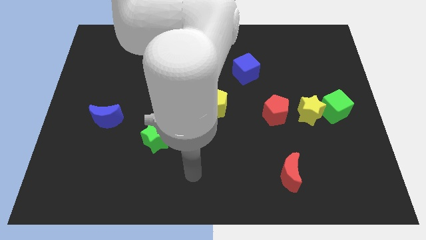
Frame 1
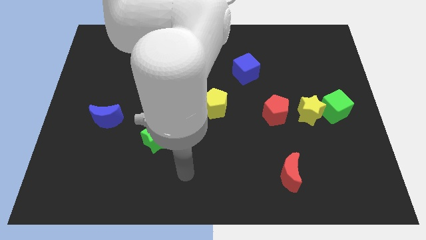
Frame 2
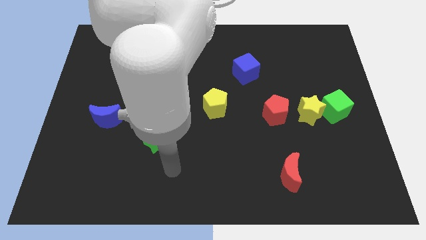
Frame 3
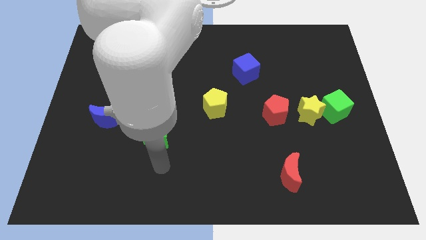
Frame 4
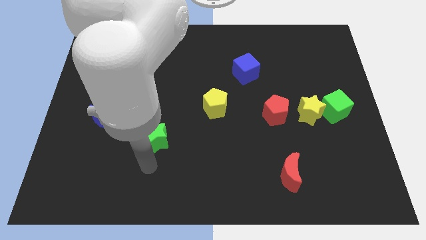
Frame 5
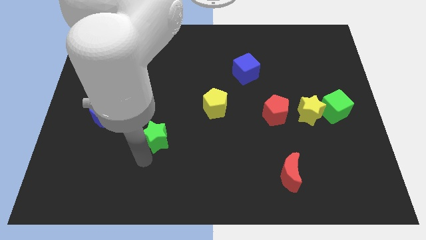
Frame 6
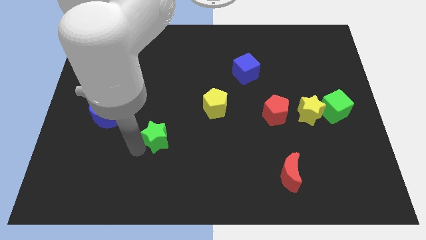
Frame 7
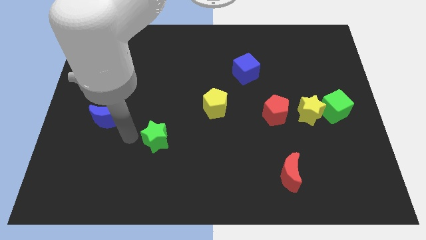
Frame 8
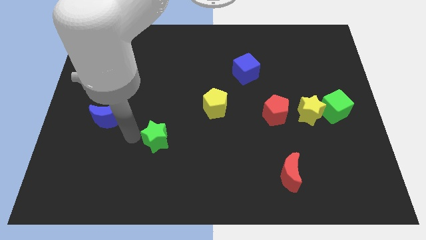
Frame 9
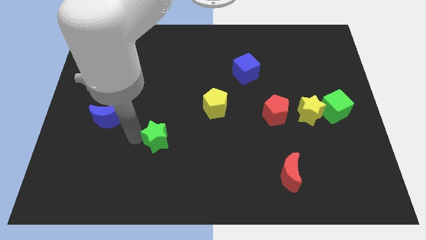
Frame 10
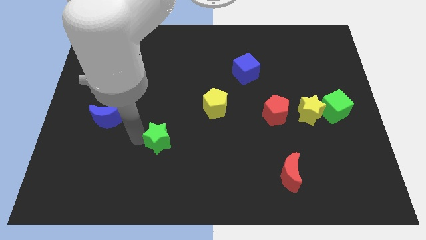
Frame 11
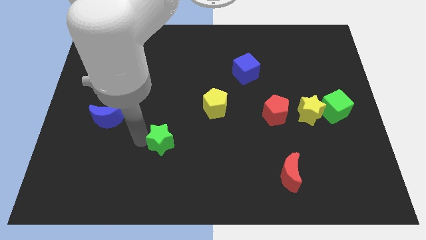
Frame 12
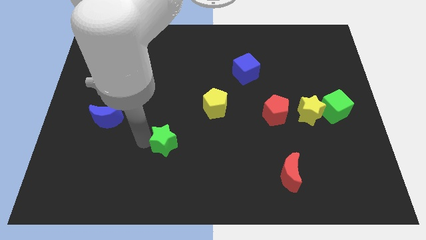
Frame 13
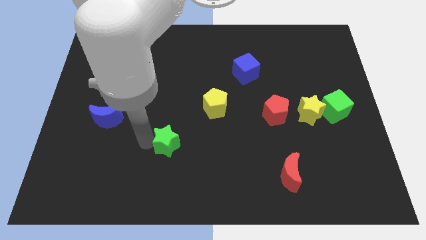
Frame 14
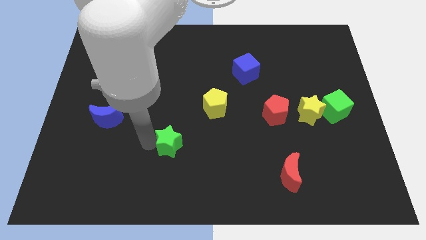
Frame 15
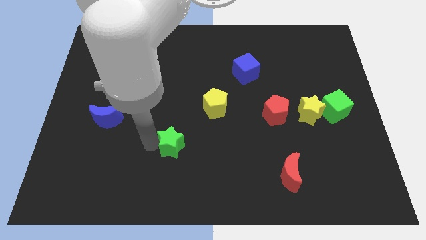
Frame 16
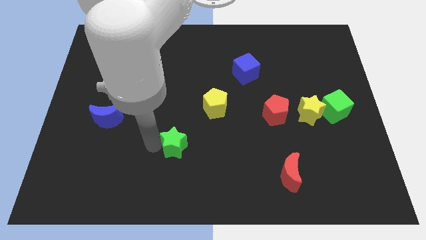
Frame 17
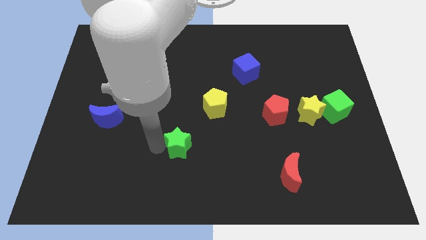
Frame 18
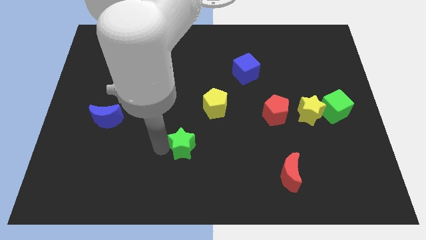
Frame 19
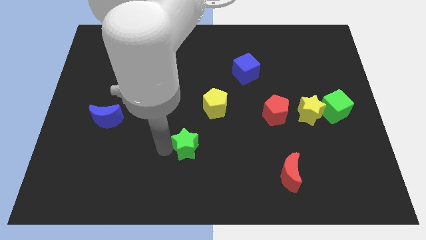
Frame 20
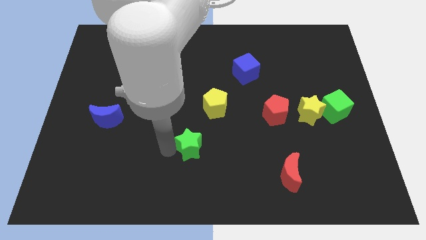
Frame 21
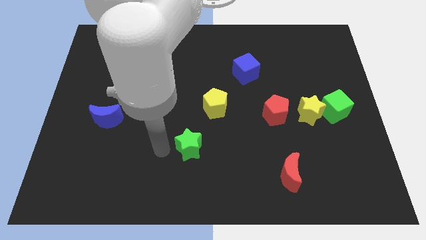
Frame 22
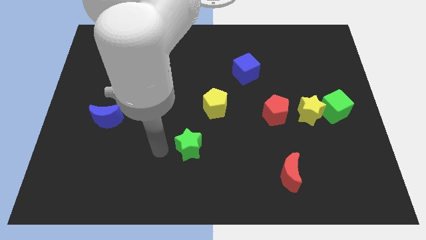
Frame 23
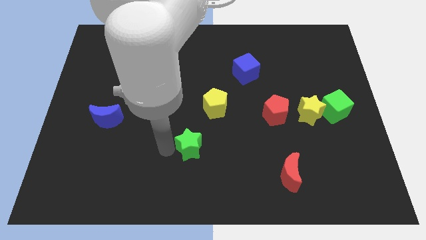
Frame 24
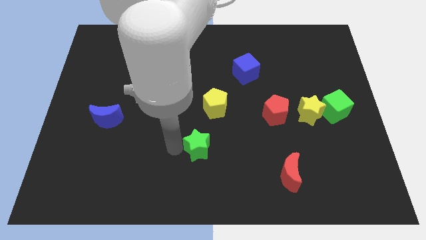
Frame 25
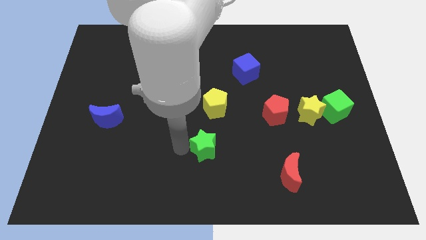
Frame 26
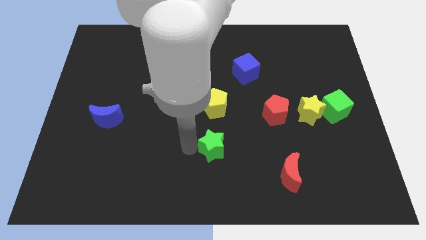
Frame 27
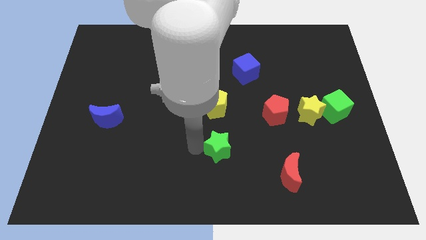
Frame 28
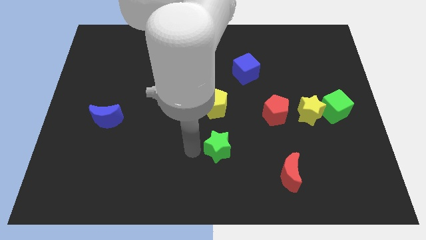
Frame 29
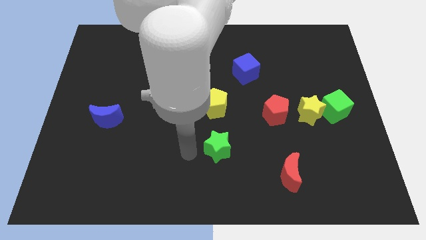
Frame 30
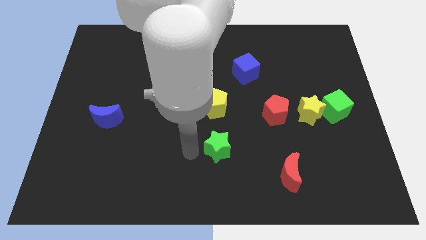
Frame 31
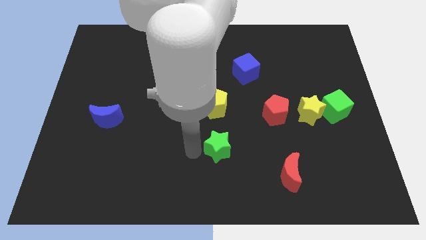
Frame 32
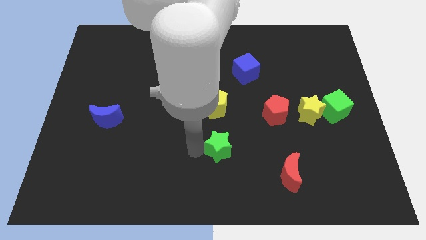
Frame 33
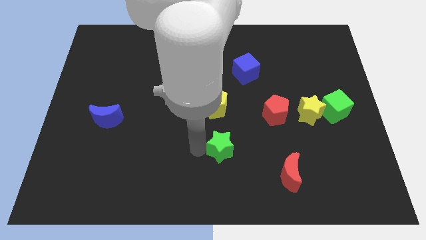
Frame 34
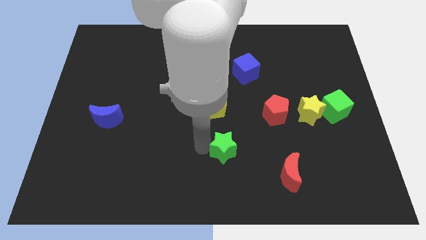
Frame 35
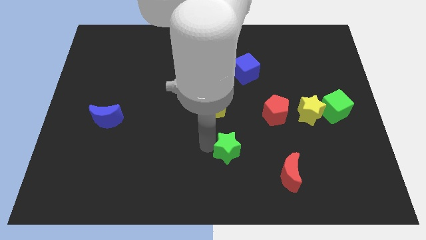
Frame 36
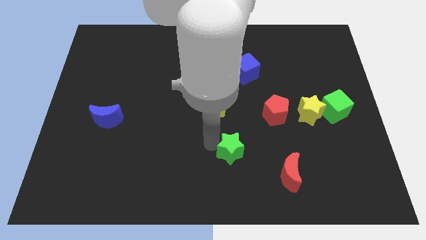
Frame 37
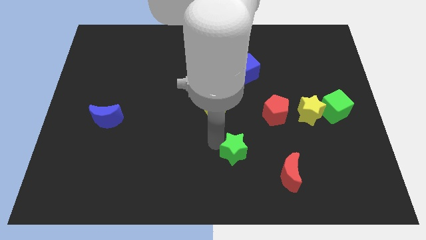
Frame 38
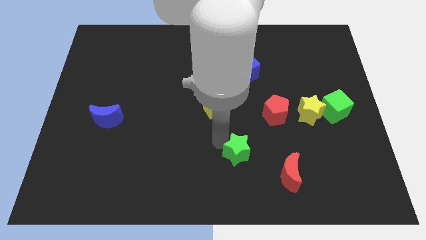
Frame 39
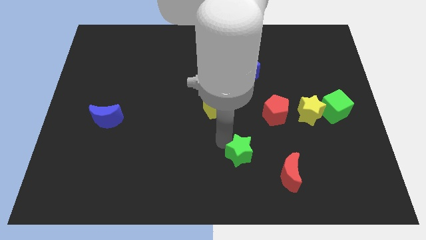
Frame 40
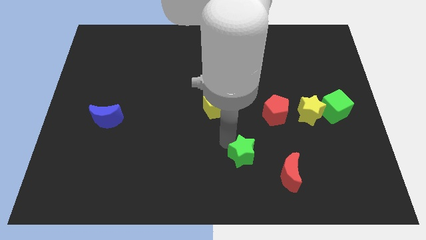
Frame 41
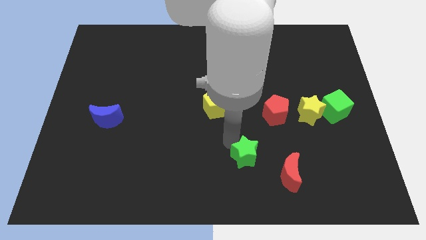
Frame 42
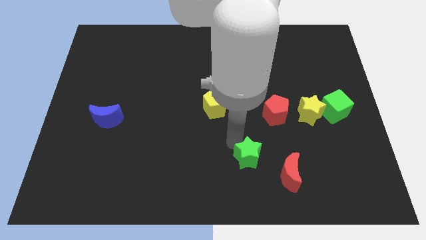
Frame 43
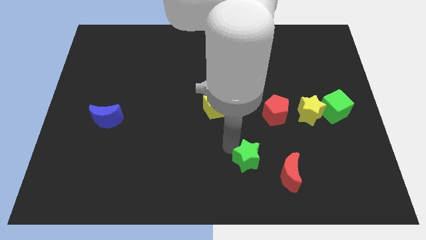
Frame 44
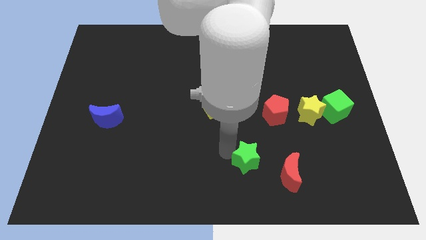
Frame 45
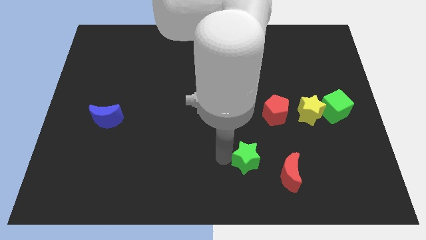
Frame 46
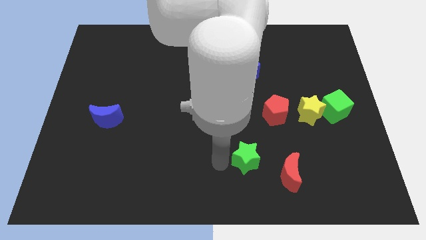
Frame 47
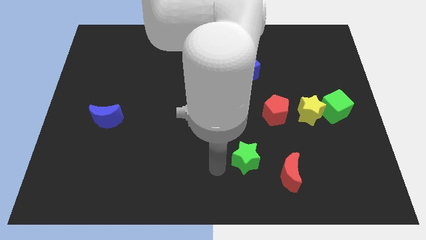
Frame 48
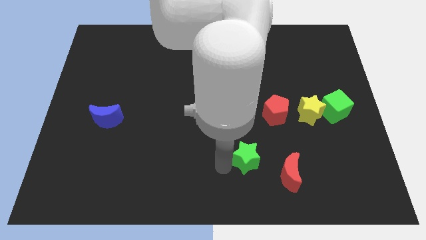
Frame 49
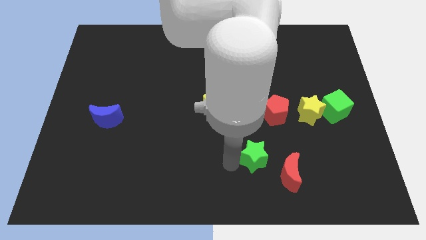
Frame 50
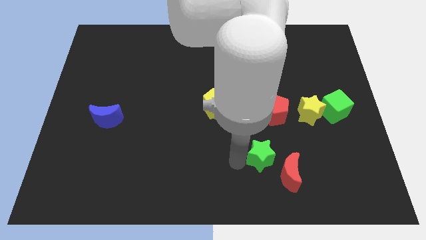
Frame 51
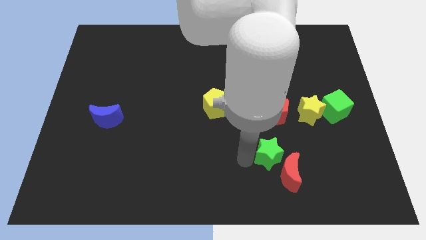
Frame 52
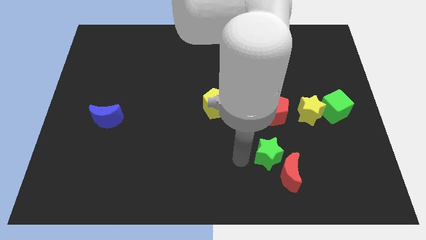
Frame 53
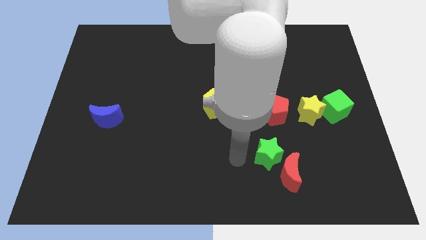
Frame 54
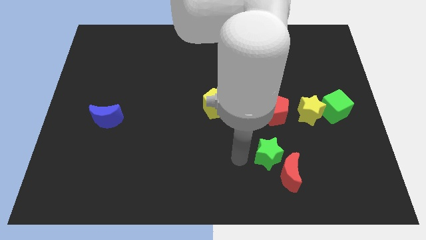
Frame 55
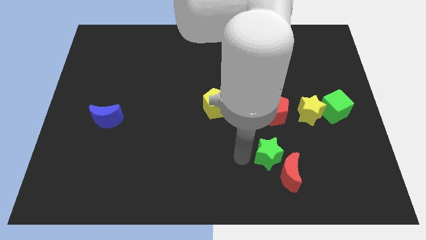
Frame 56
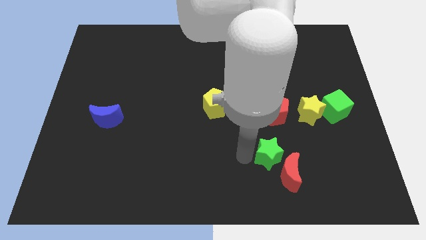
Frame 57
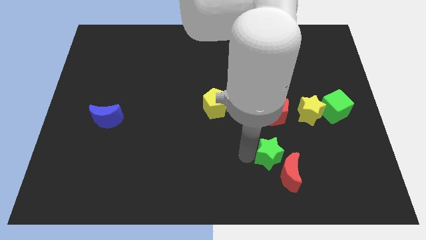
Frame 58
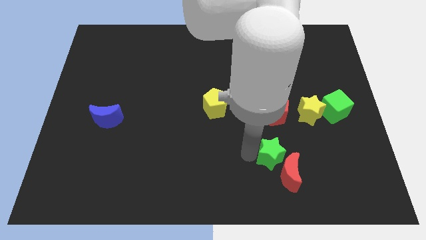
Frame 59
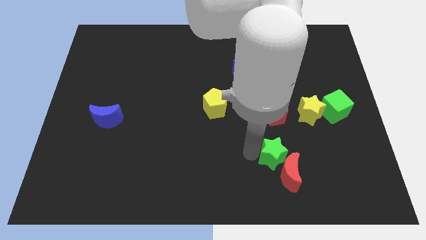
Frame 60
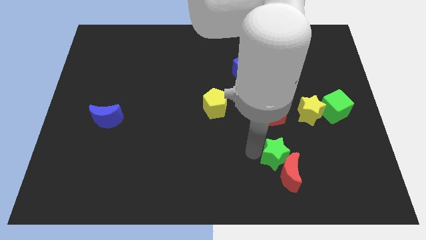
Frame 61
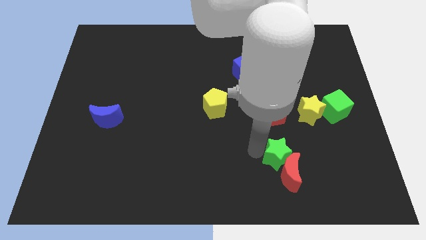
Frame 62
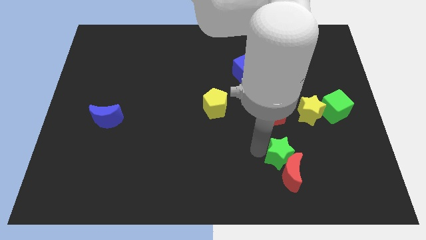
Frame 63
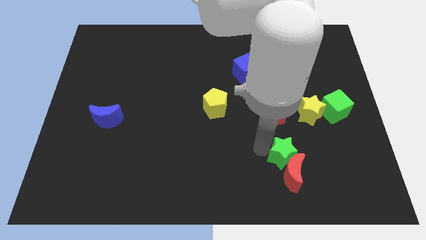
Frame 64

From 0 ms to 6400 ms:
move the green star diagonally up and to the right of the red moon
